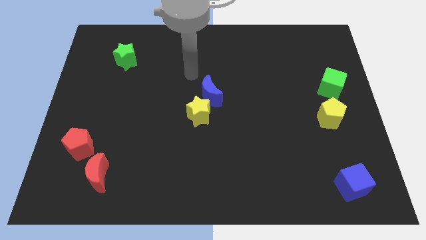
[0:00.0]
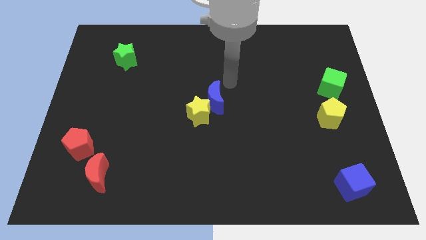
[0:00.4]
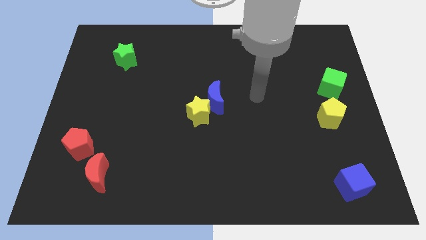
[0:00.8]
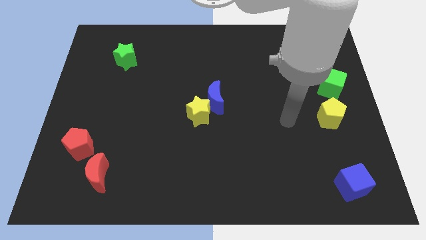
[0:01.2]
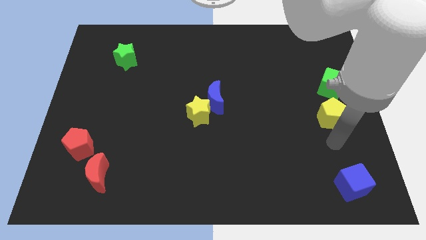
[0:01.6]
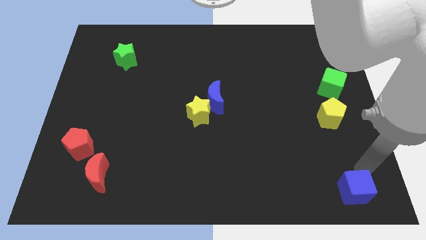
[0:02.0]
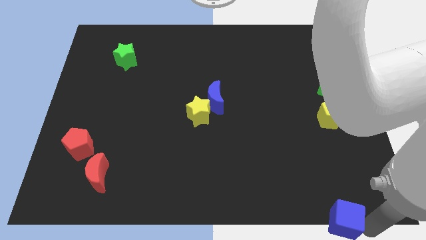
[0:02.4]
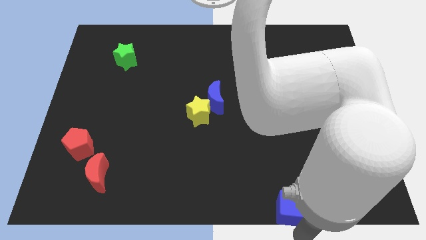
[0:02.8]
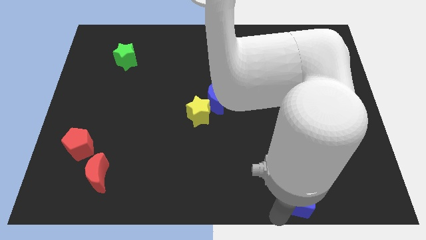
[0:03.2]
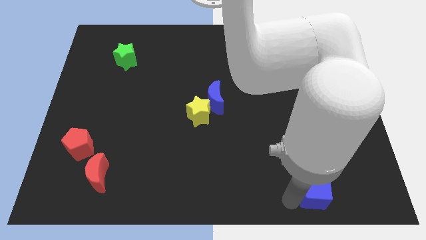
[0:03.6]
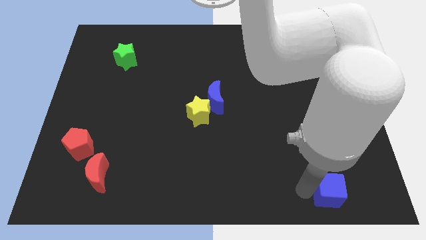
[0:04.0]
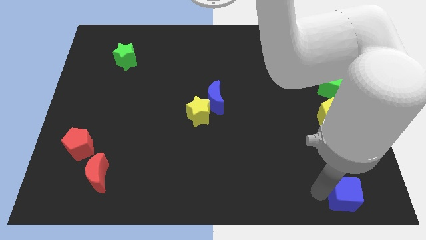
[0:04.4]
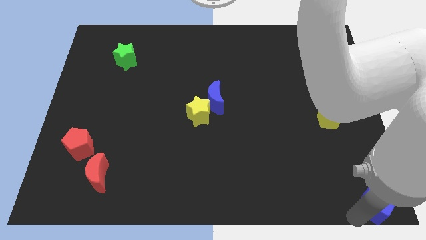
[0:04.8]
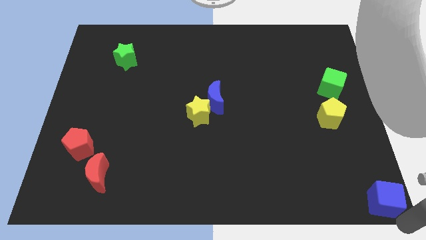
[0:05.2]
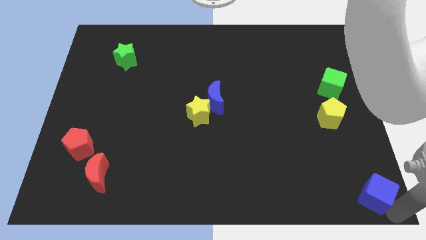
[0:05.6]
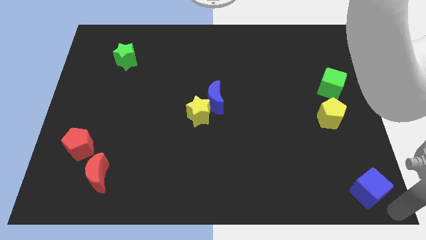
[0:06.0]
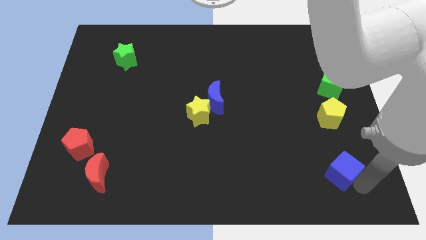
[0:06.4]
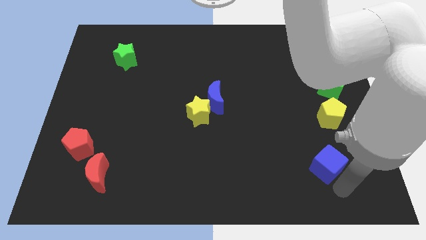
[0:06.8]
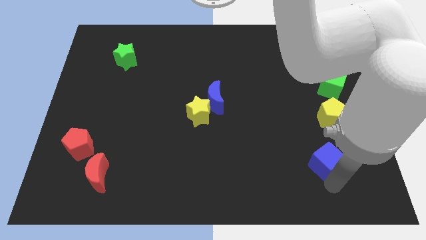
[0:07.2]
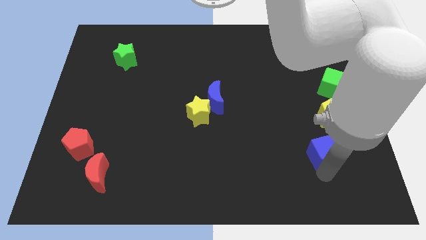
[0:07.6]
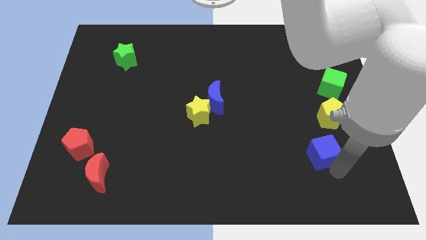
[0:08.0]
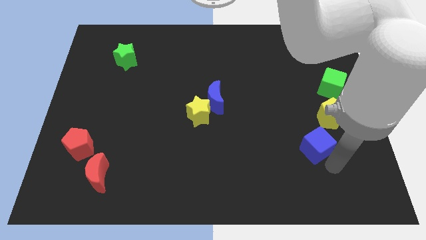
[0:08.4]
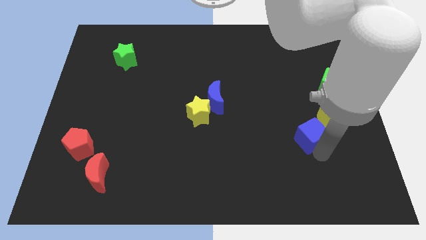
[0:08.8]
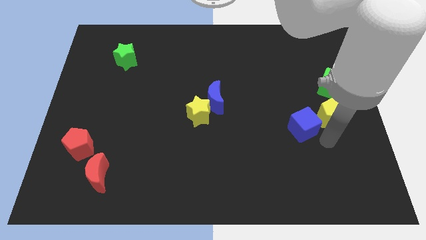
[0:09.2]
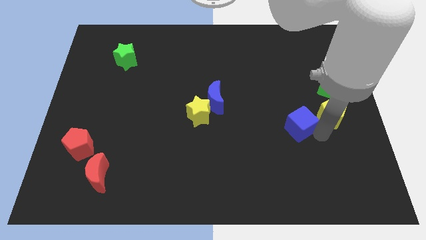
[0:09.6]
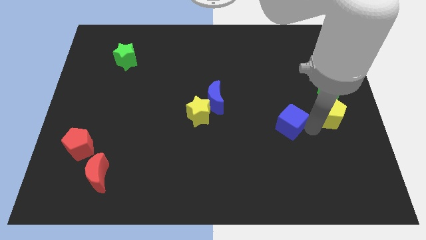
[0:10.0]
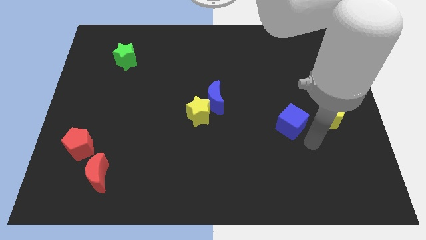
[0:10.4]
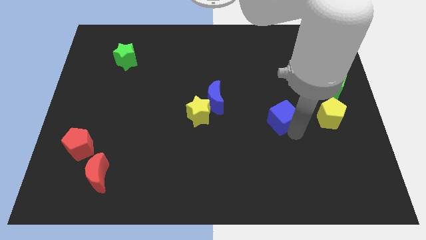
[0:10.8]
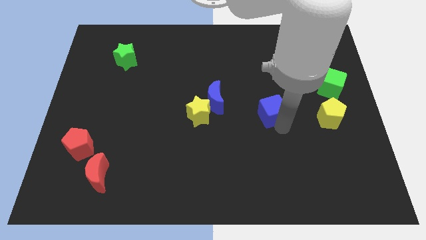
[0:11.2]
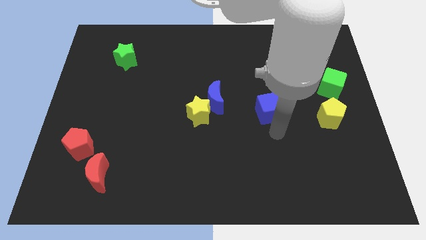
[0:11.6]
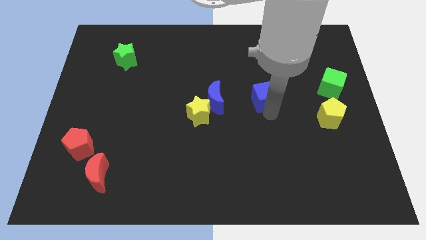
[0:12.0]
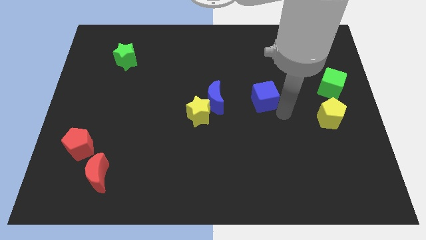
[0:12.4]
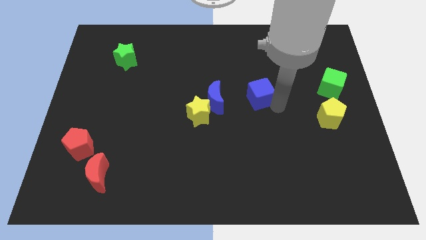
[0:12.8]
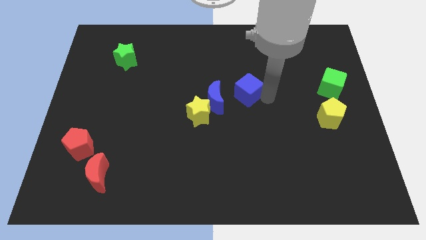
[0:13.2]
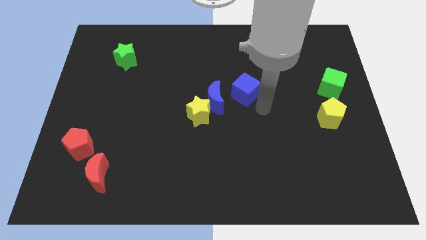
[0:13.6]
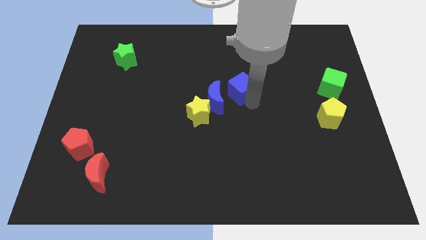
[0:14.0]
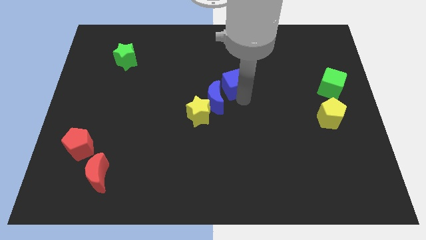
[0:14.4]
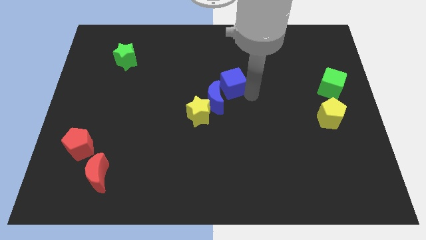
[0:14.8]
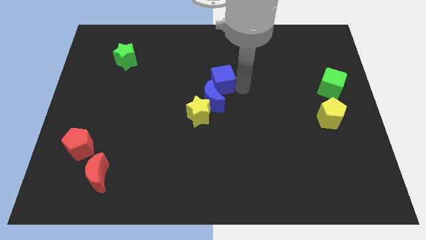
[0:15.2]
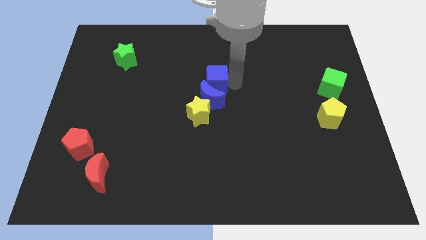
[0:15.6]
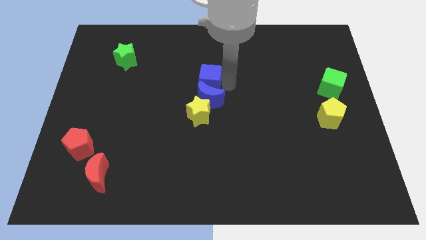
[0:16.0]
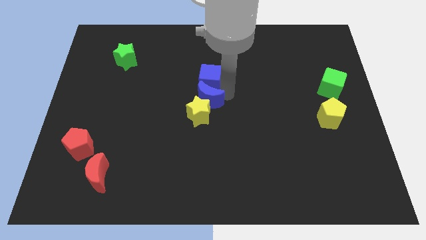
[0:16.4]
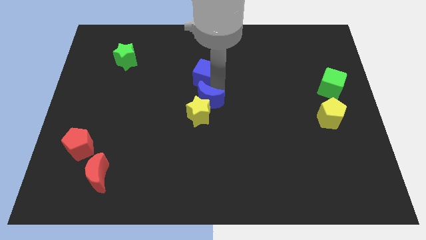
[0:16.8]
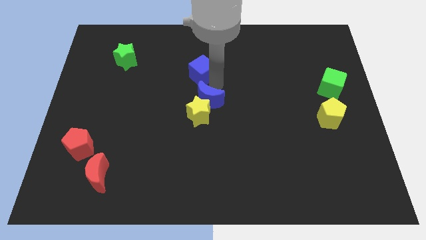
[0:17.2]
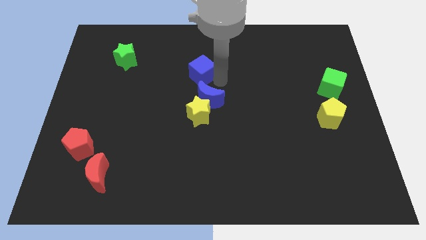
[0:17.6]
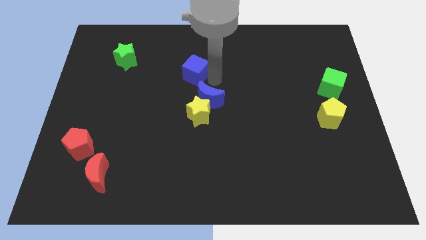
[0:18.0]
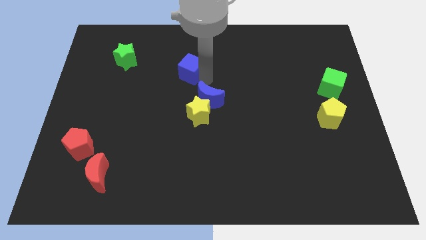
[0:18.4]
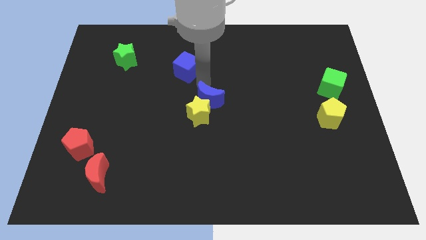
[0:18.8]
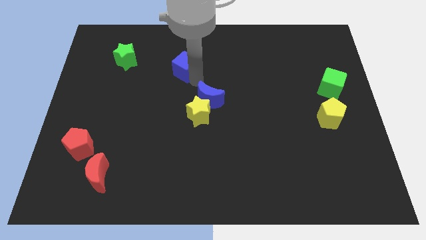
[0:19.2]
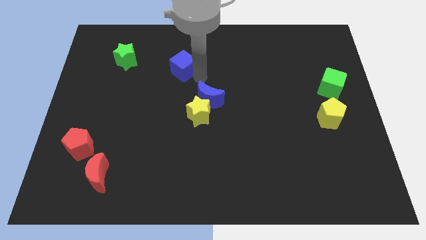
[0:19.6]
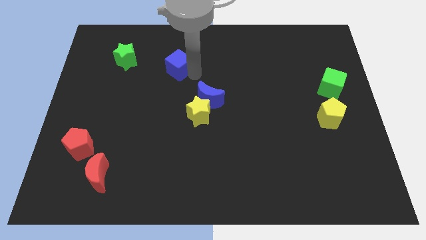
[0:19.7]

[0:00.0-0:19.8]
slide the blue cube right of the green star

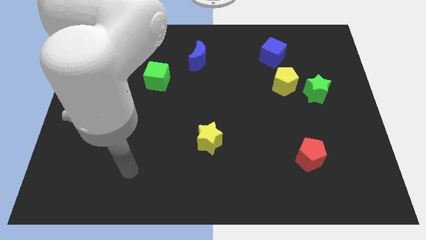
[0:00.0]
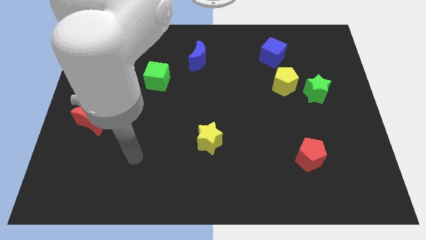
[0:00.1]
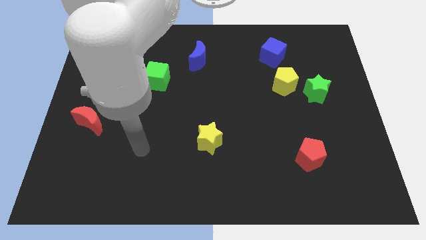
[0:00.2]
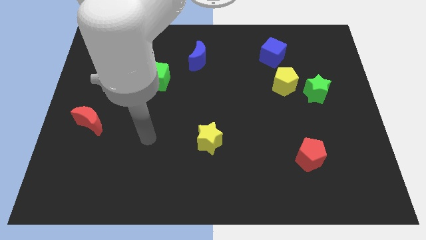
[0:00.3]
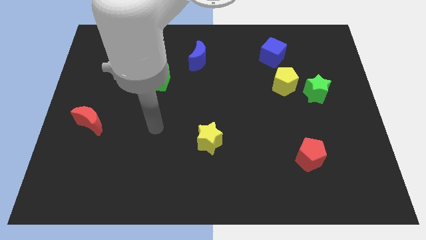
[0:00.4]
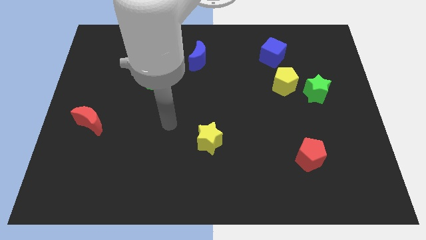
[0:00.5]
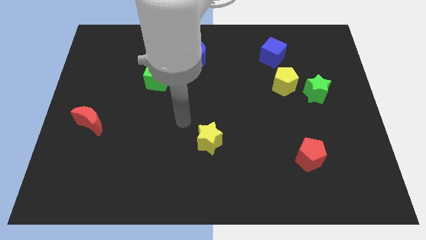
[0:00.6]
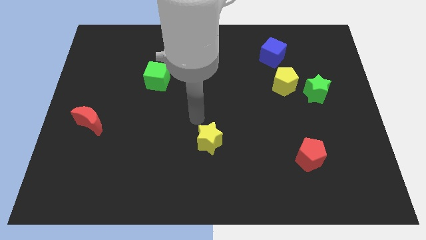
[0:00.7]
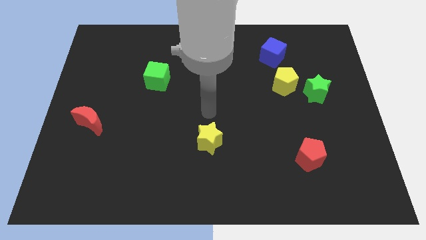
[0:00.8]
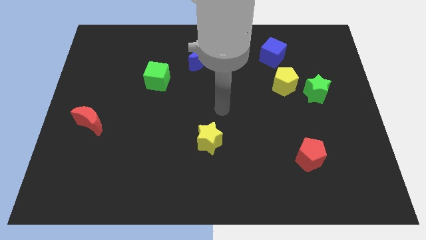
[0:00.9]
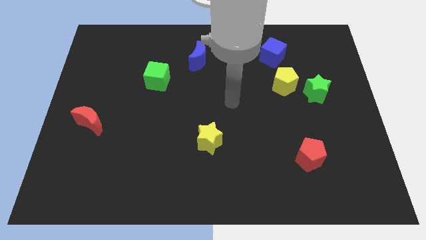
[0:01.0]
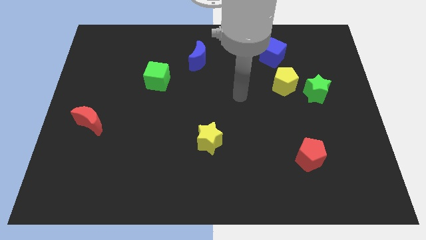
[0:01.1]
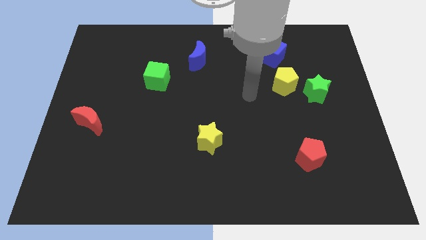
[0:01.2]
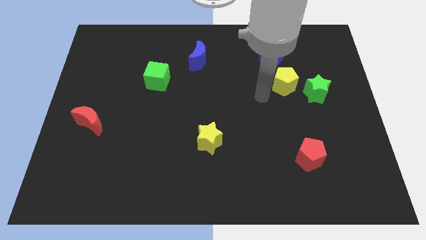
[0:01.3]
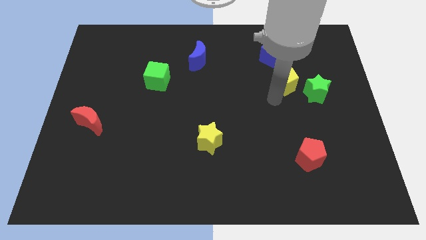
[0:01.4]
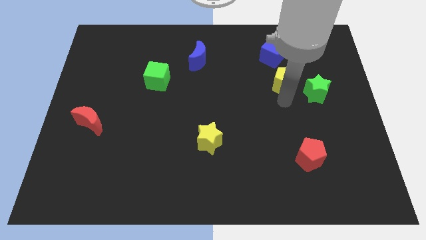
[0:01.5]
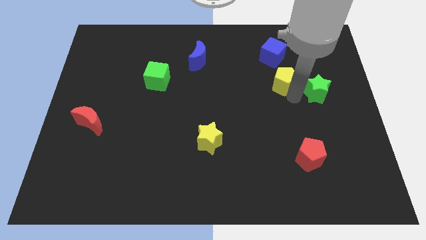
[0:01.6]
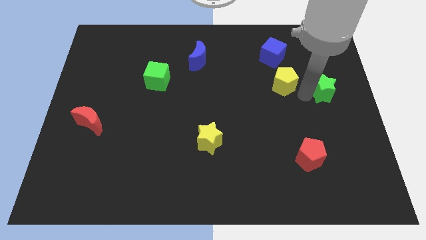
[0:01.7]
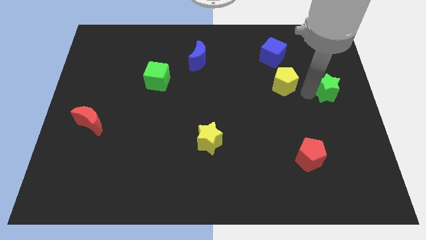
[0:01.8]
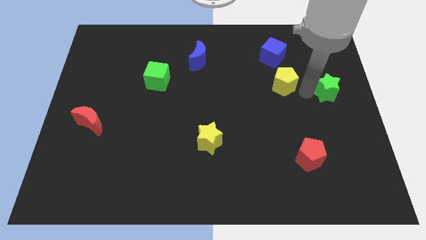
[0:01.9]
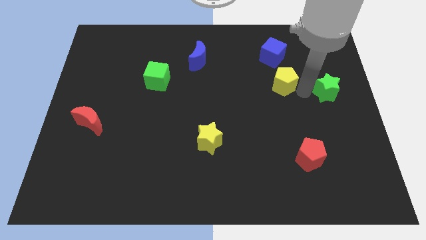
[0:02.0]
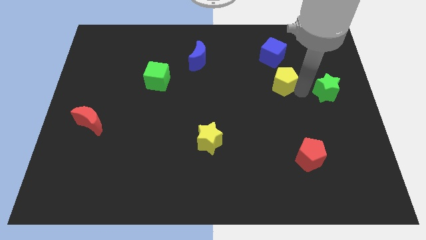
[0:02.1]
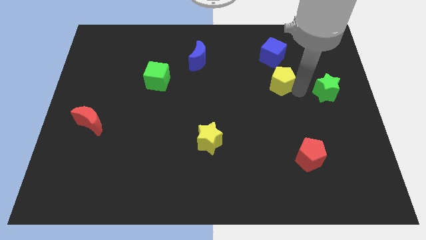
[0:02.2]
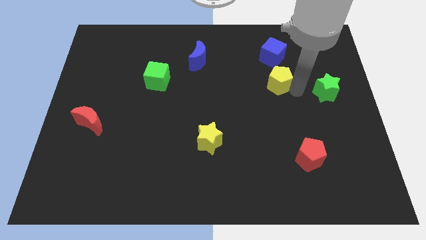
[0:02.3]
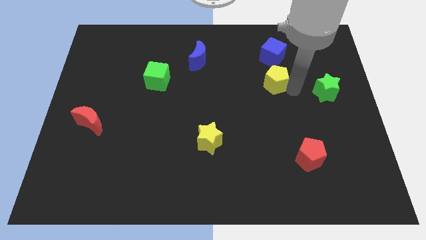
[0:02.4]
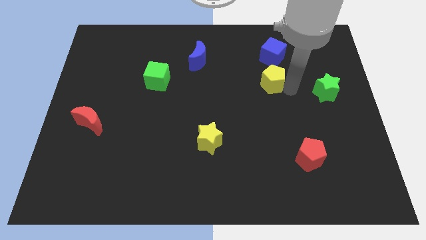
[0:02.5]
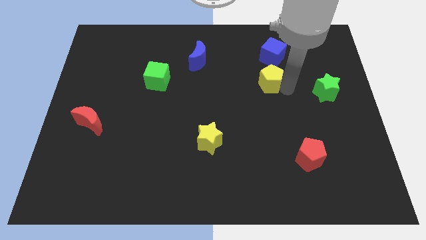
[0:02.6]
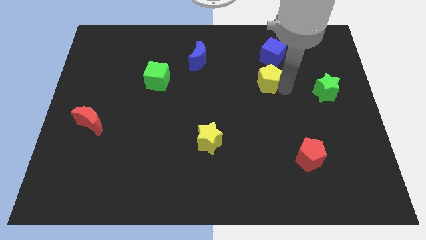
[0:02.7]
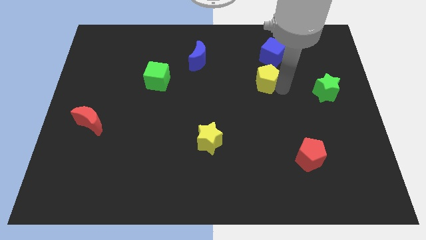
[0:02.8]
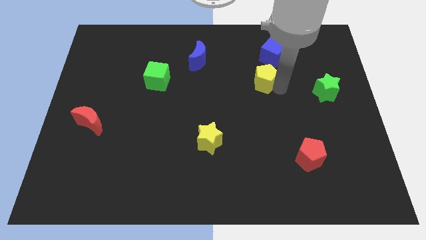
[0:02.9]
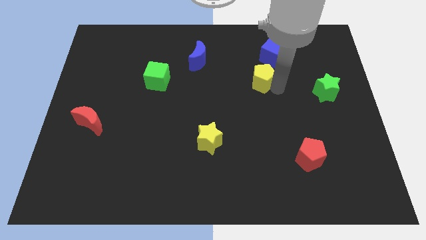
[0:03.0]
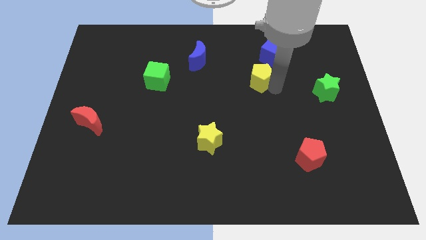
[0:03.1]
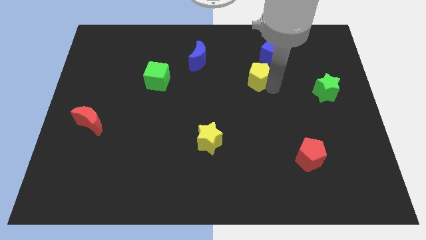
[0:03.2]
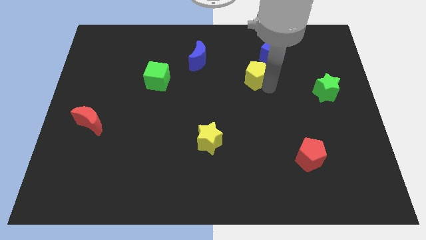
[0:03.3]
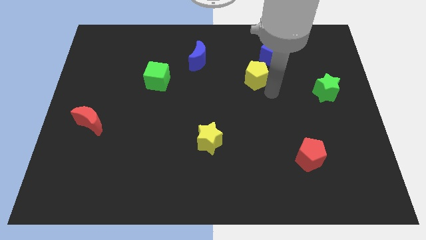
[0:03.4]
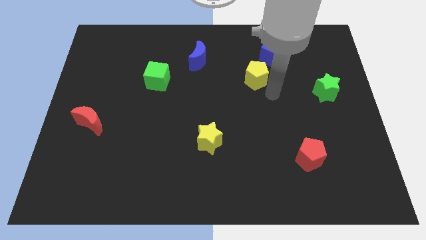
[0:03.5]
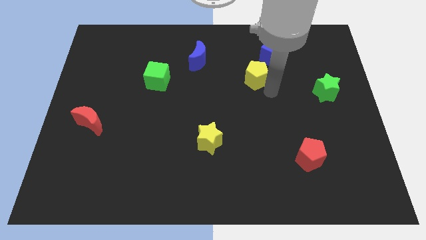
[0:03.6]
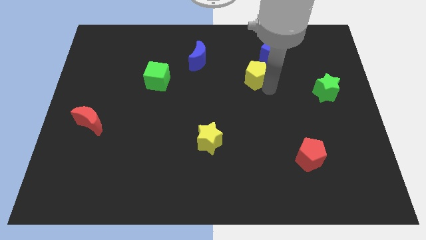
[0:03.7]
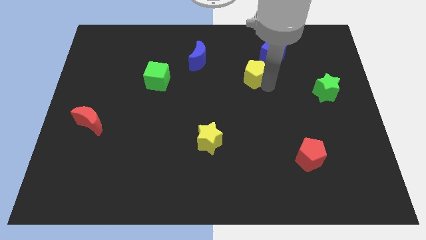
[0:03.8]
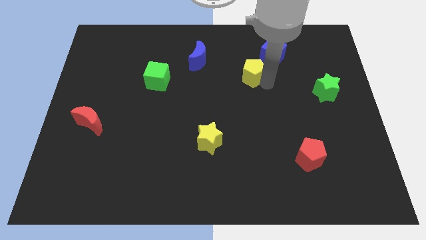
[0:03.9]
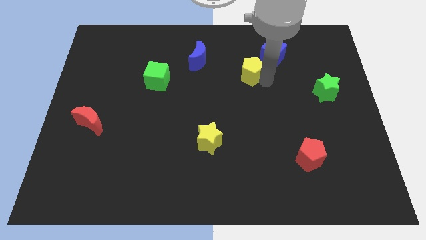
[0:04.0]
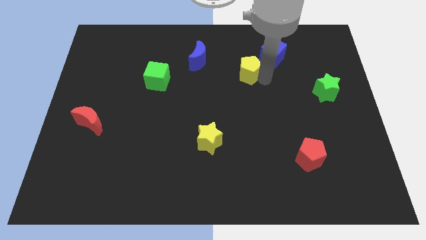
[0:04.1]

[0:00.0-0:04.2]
push the yellow pentagon just right of the blue moon
